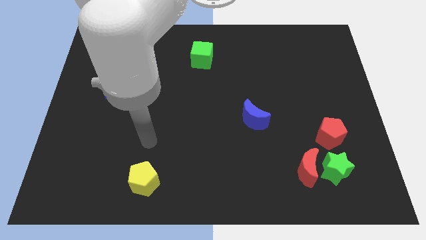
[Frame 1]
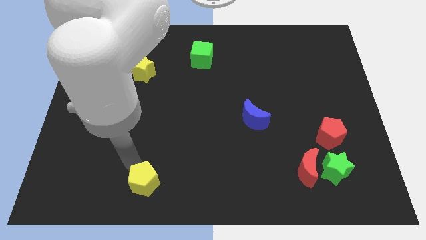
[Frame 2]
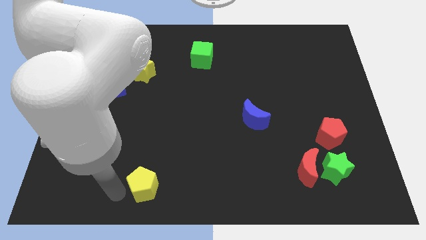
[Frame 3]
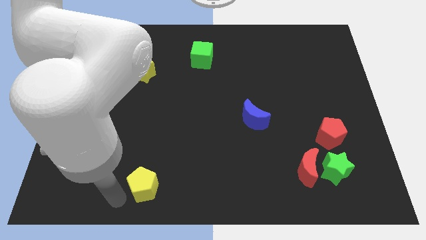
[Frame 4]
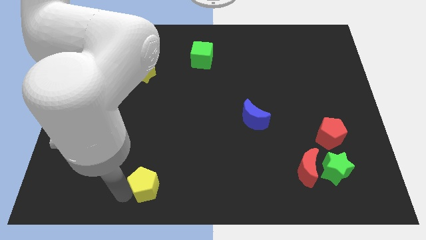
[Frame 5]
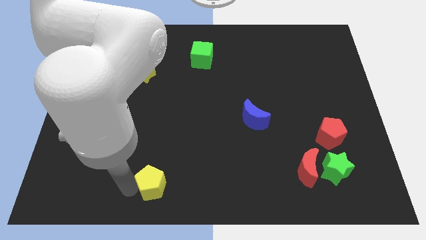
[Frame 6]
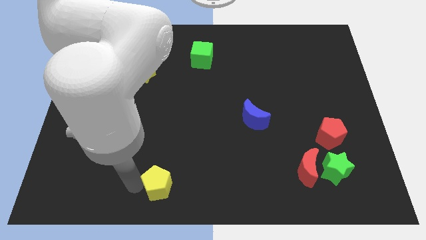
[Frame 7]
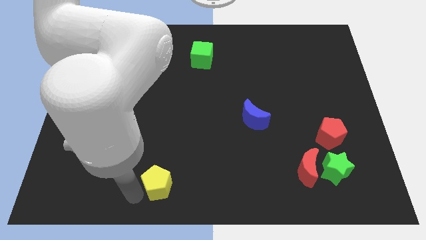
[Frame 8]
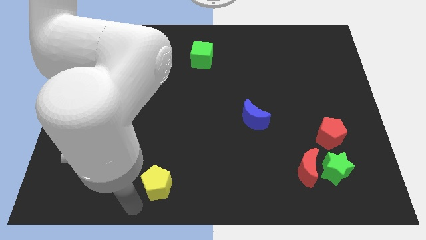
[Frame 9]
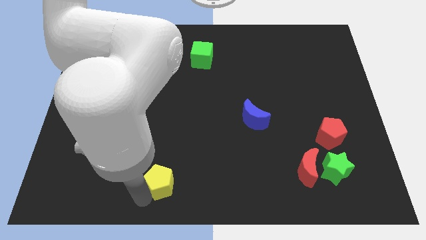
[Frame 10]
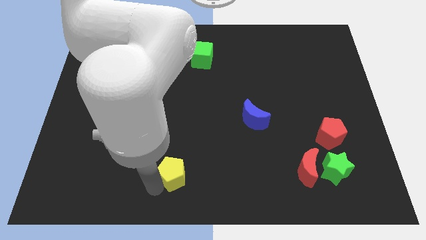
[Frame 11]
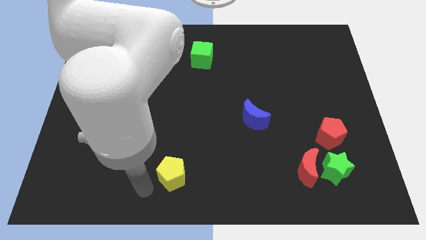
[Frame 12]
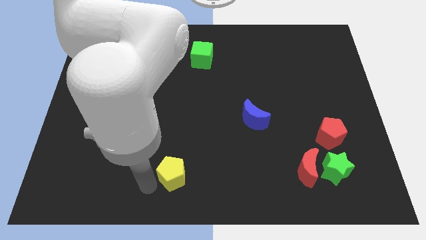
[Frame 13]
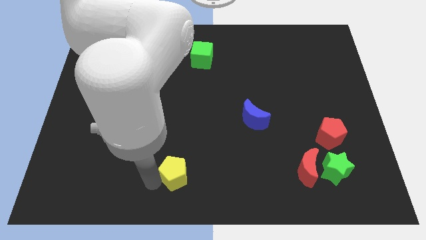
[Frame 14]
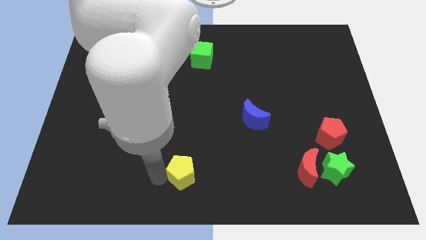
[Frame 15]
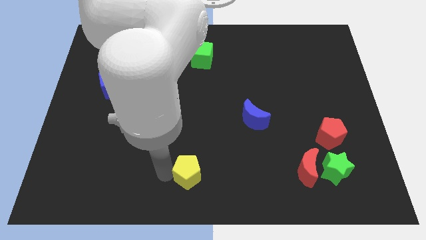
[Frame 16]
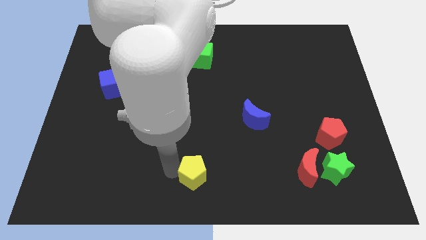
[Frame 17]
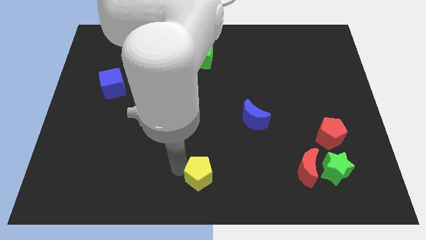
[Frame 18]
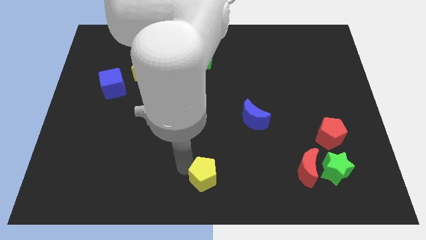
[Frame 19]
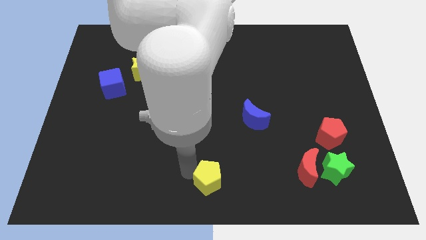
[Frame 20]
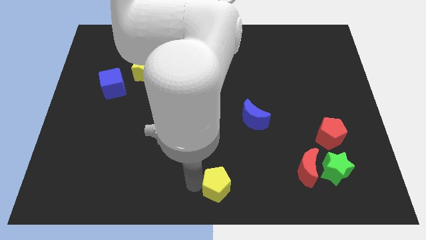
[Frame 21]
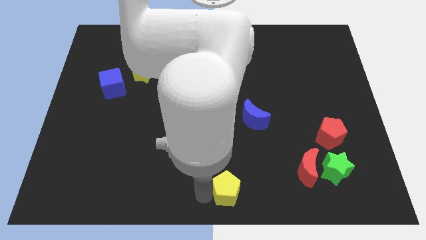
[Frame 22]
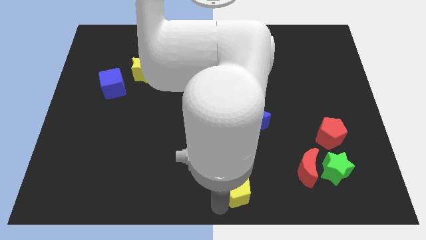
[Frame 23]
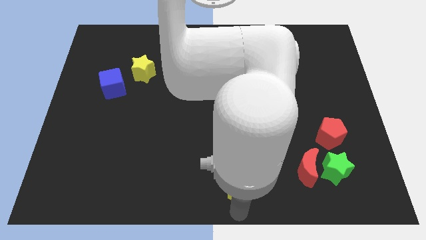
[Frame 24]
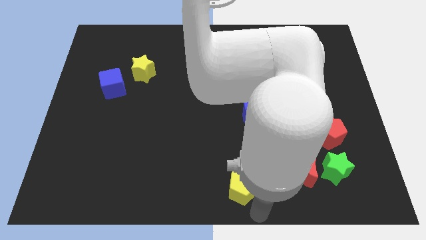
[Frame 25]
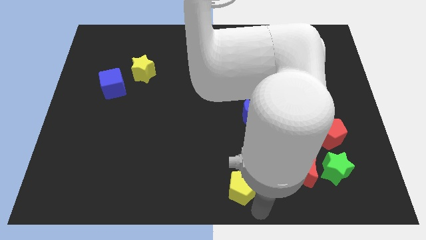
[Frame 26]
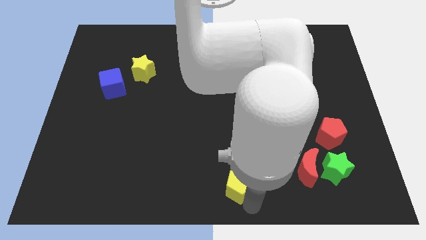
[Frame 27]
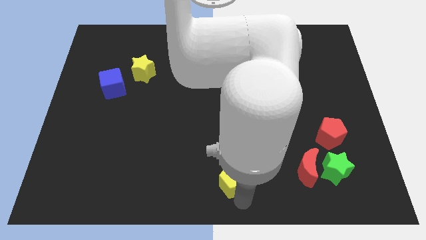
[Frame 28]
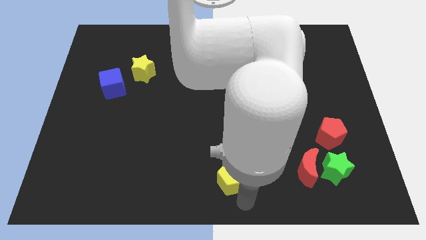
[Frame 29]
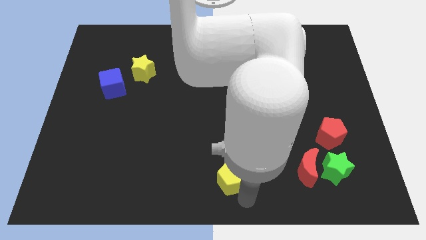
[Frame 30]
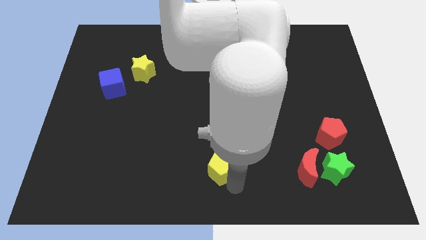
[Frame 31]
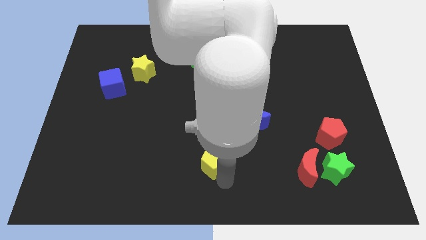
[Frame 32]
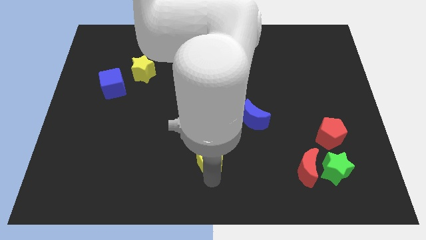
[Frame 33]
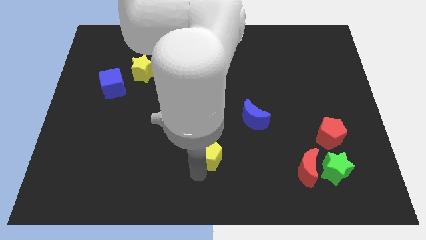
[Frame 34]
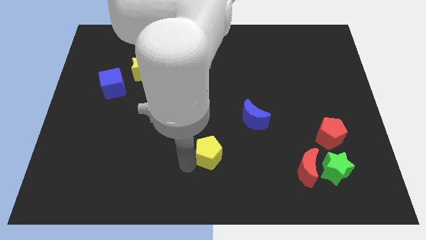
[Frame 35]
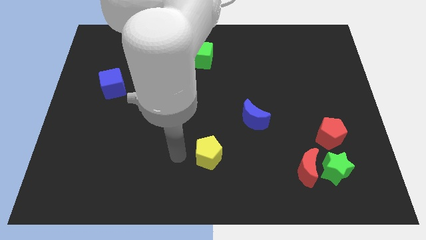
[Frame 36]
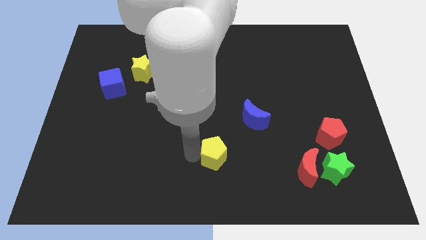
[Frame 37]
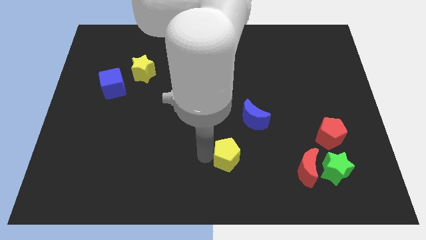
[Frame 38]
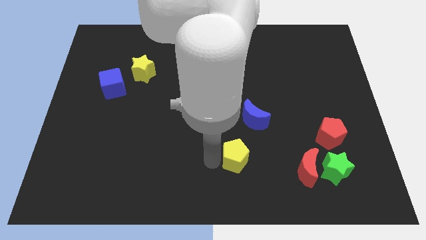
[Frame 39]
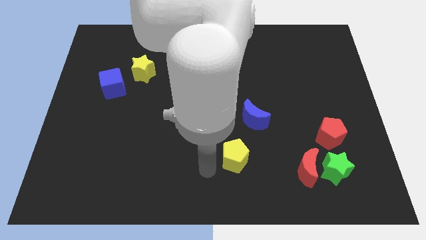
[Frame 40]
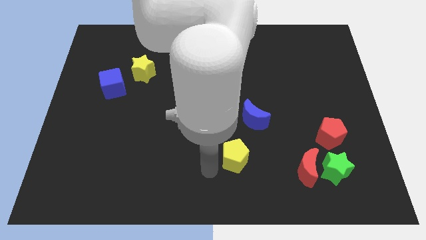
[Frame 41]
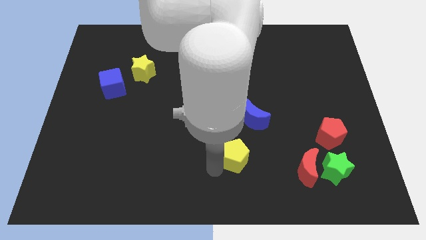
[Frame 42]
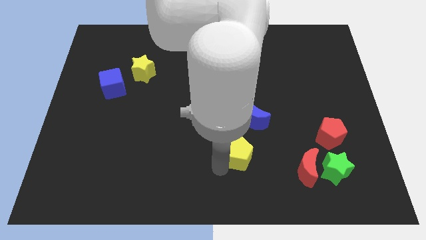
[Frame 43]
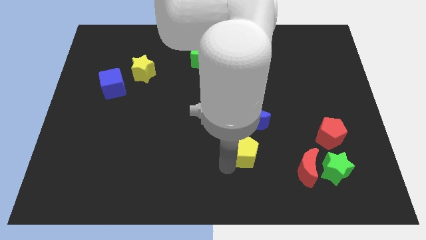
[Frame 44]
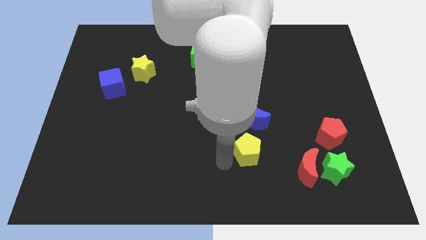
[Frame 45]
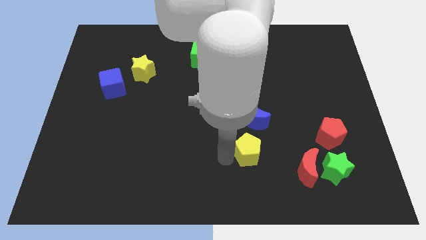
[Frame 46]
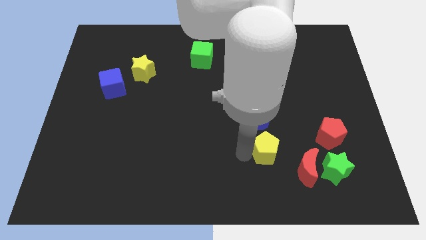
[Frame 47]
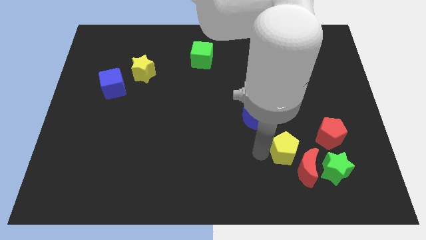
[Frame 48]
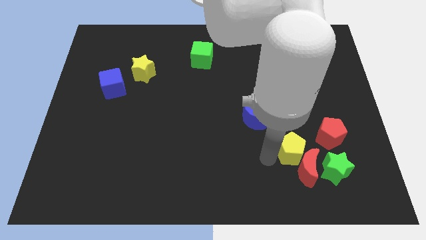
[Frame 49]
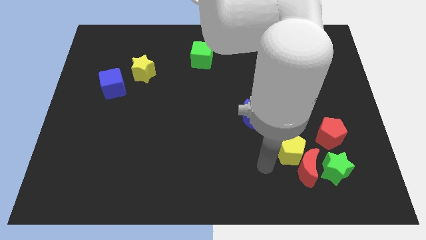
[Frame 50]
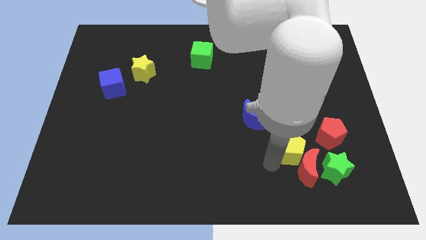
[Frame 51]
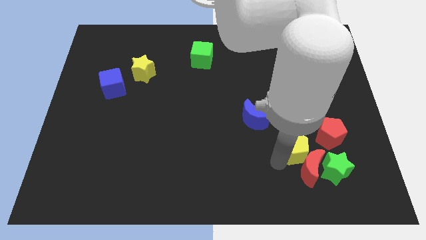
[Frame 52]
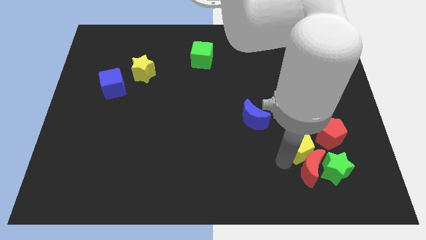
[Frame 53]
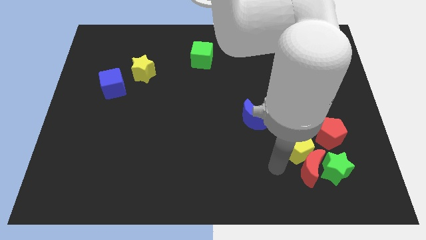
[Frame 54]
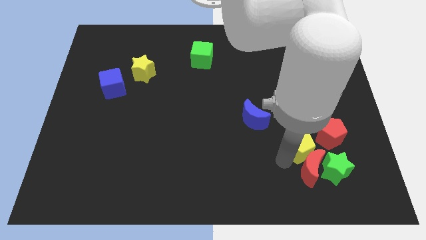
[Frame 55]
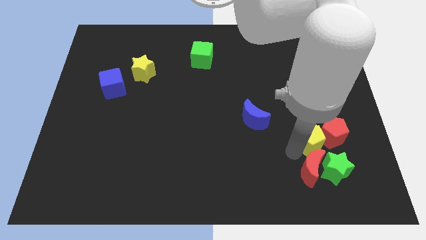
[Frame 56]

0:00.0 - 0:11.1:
push the yellow pentagon close to the red pentagon

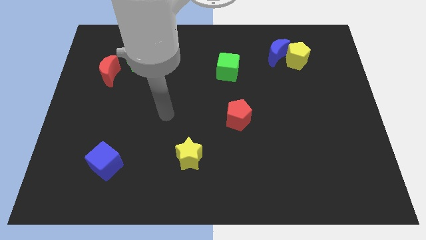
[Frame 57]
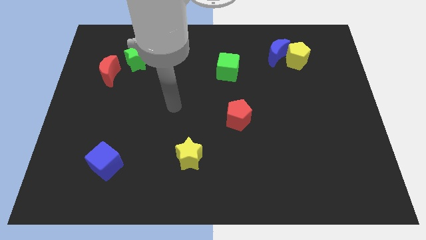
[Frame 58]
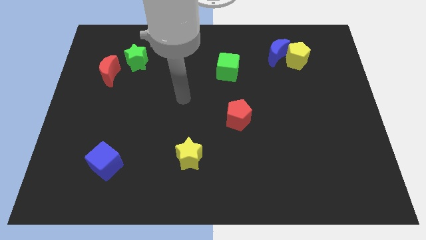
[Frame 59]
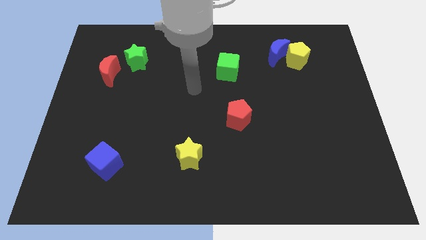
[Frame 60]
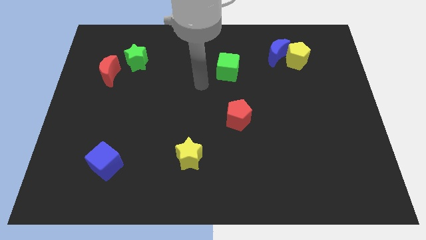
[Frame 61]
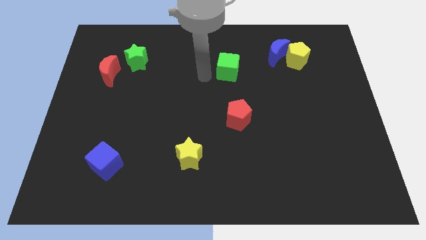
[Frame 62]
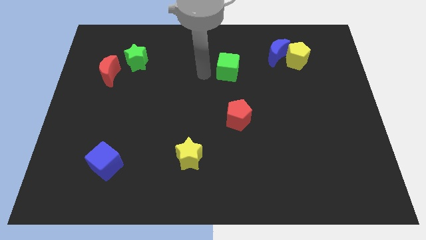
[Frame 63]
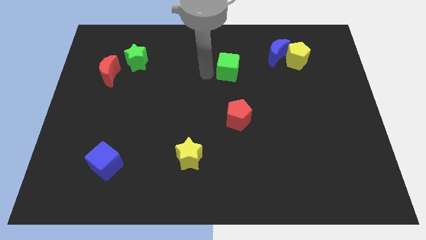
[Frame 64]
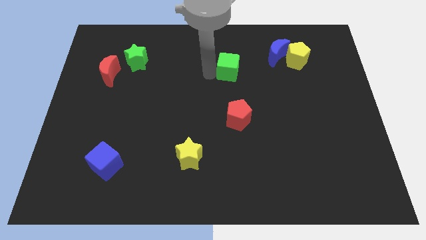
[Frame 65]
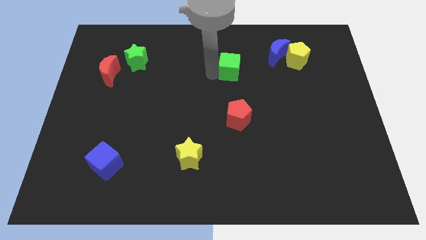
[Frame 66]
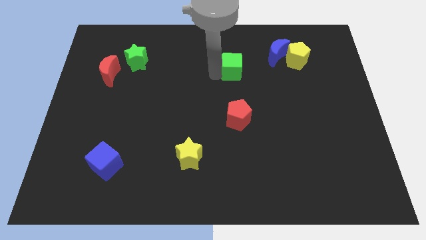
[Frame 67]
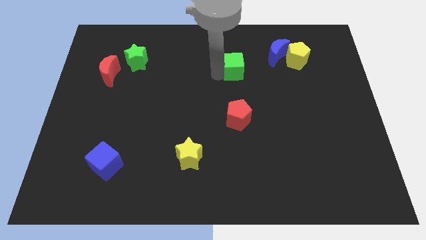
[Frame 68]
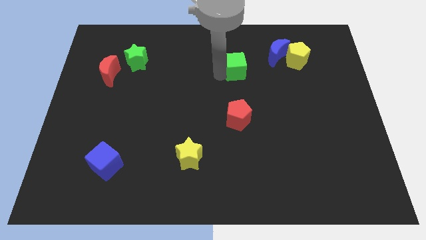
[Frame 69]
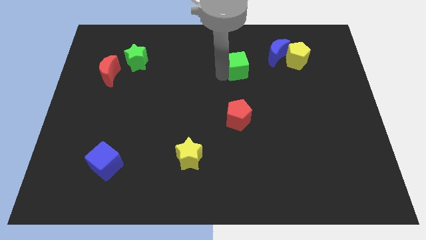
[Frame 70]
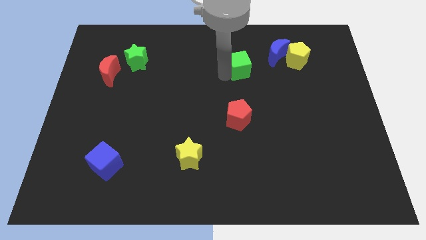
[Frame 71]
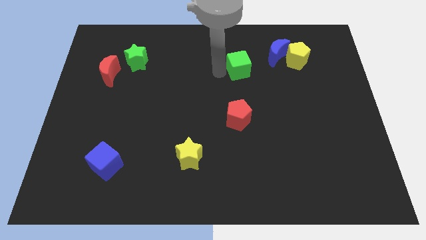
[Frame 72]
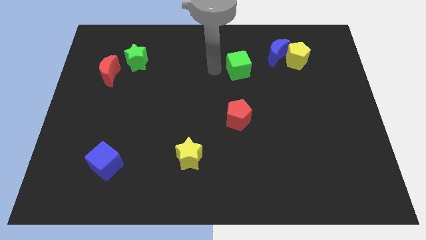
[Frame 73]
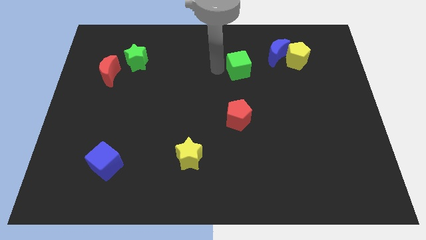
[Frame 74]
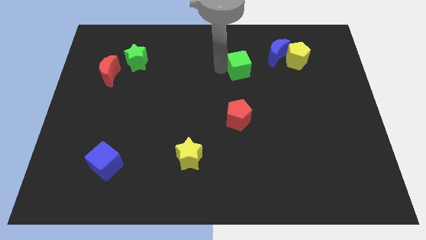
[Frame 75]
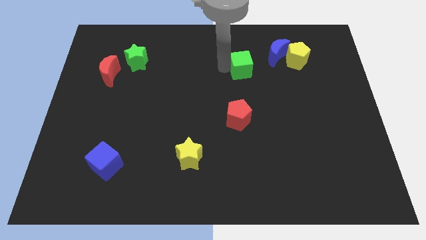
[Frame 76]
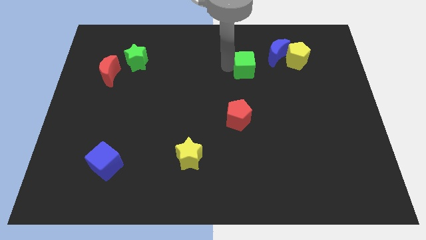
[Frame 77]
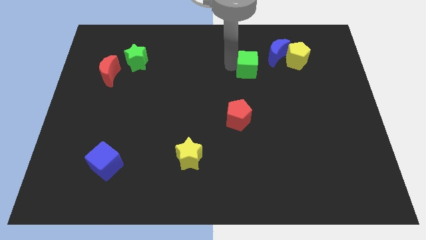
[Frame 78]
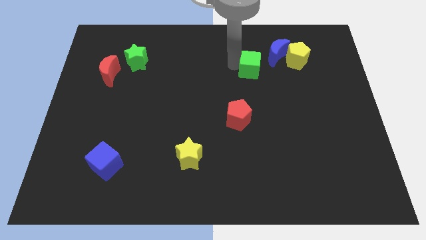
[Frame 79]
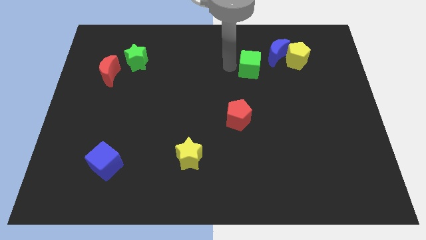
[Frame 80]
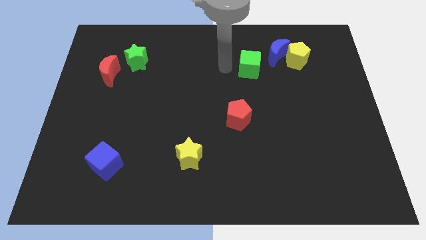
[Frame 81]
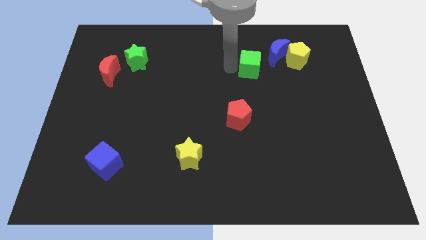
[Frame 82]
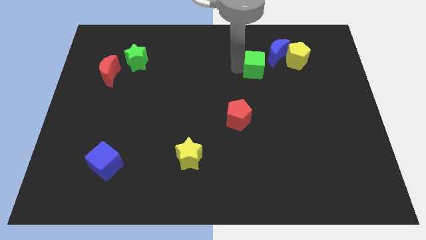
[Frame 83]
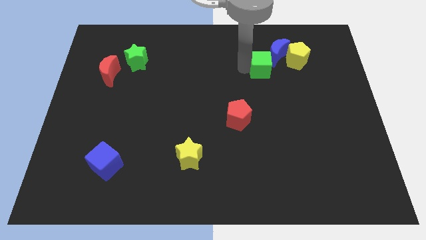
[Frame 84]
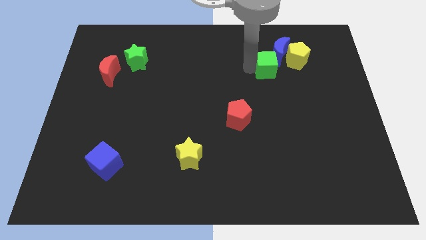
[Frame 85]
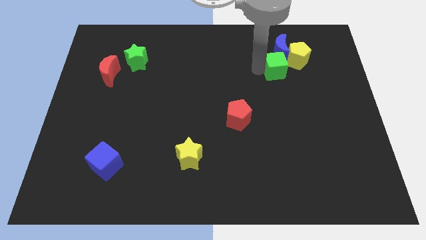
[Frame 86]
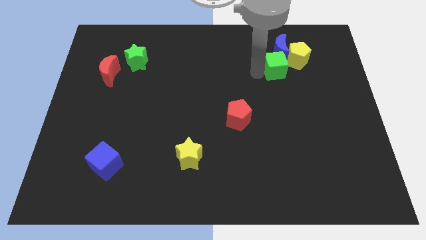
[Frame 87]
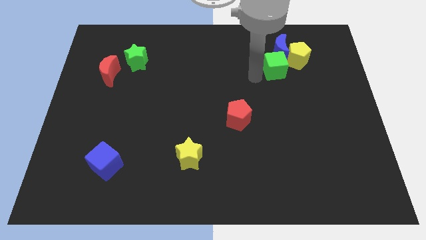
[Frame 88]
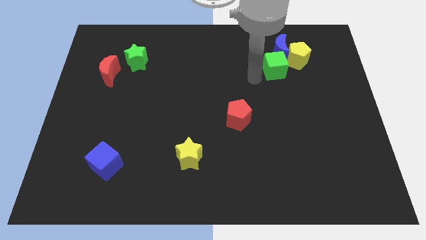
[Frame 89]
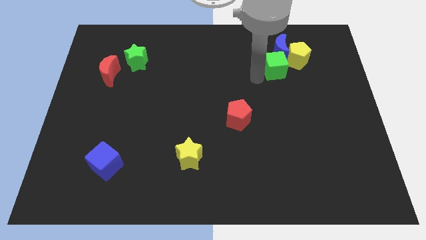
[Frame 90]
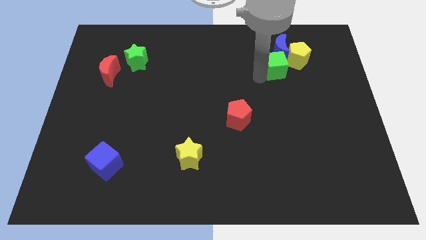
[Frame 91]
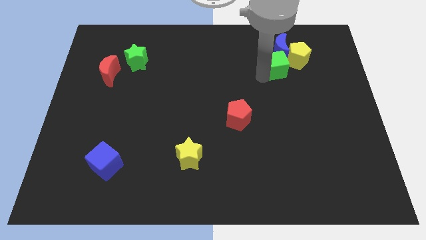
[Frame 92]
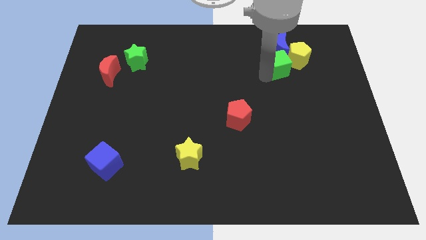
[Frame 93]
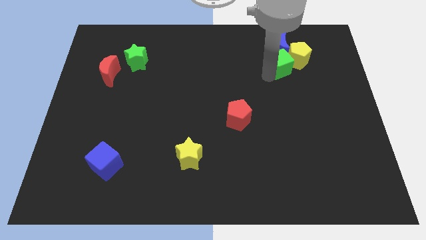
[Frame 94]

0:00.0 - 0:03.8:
push the green cube next to the yellow pentagon
